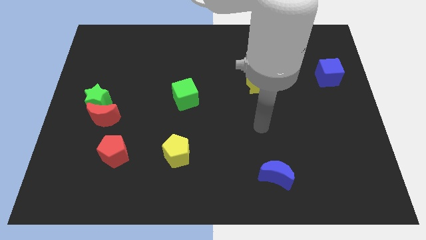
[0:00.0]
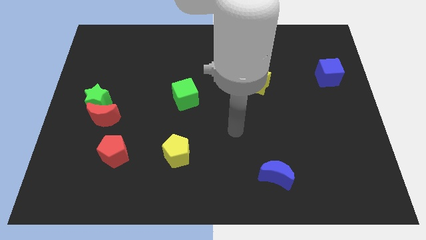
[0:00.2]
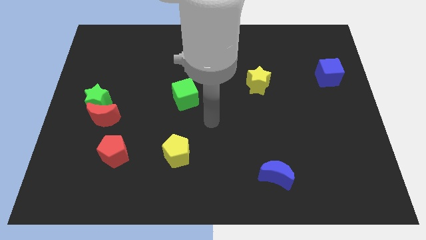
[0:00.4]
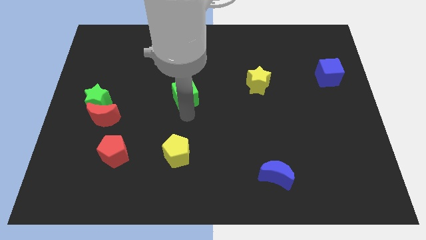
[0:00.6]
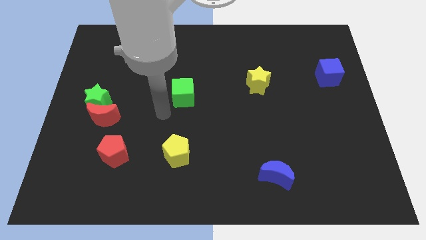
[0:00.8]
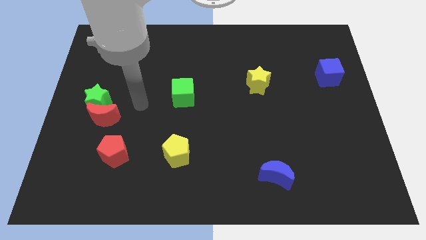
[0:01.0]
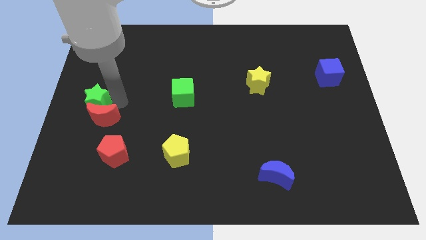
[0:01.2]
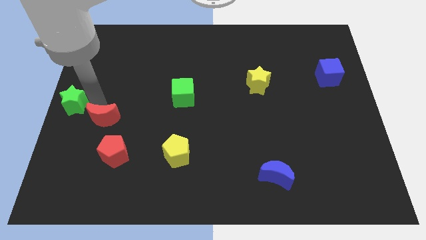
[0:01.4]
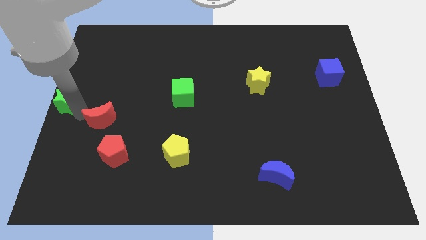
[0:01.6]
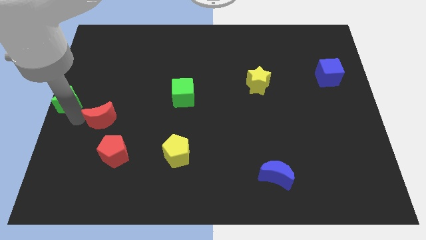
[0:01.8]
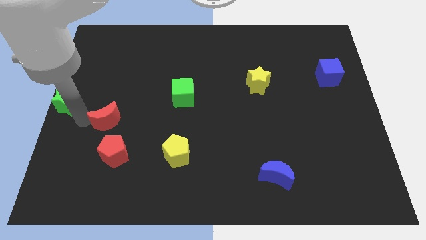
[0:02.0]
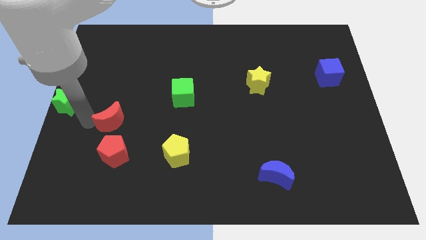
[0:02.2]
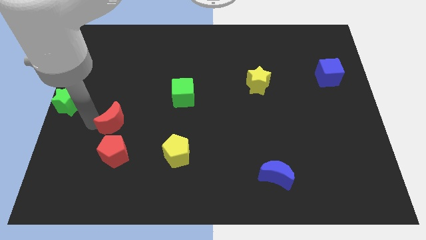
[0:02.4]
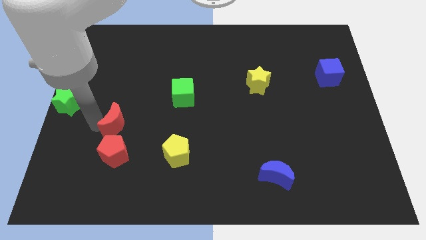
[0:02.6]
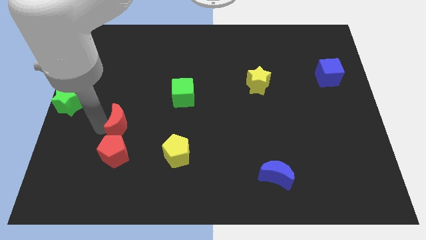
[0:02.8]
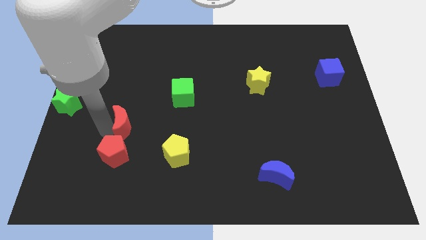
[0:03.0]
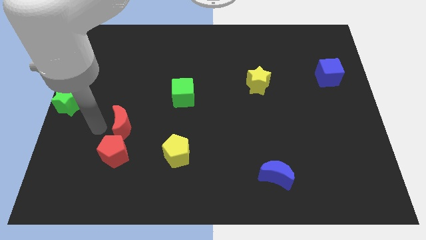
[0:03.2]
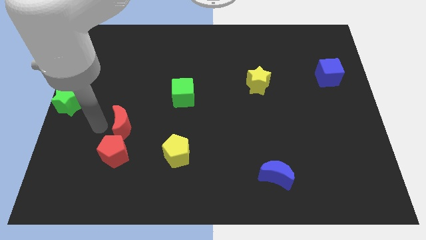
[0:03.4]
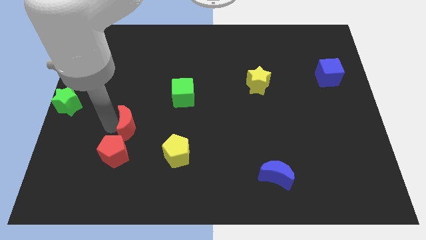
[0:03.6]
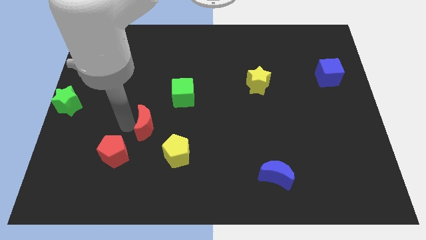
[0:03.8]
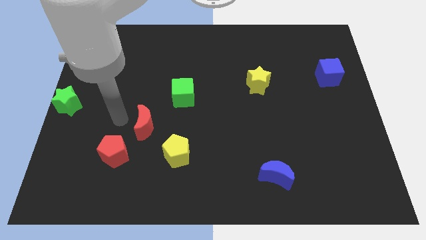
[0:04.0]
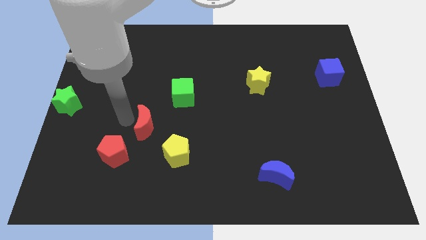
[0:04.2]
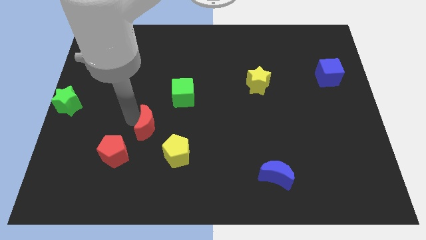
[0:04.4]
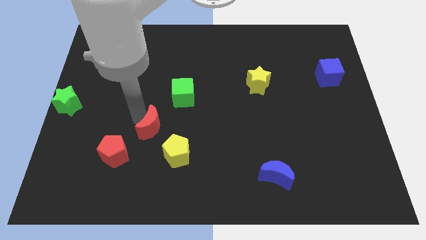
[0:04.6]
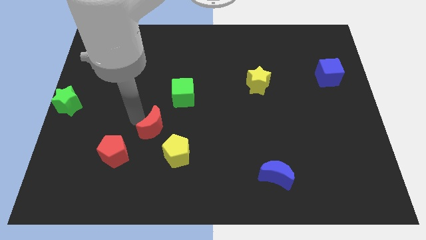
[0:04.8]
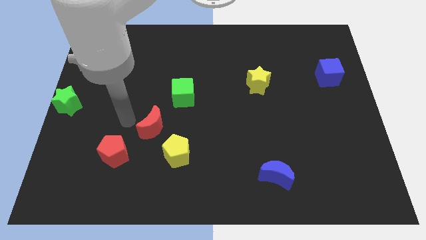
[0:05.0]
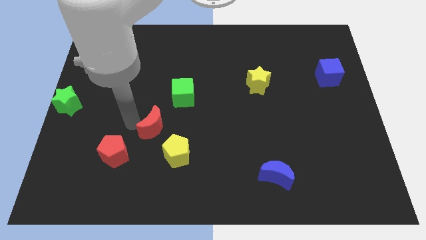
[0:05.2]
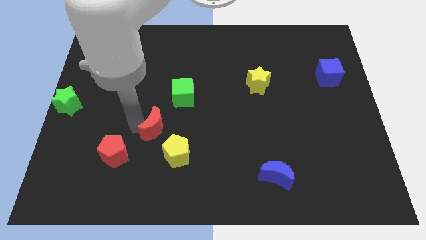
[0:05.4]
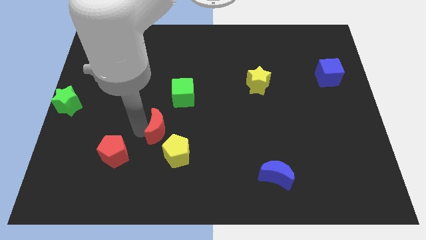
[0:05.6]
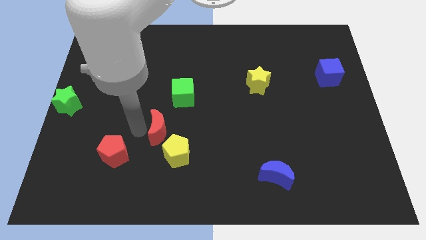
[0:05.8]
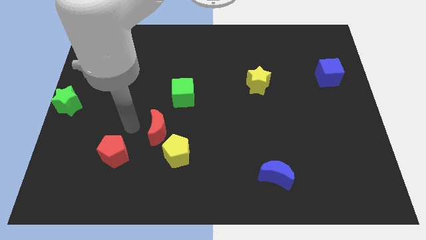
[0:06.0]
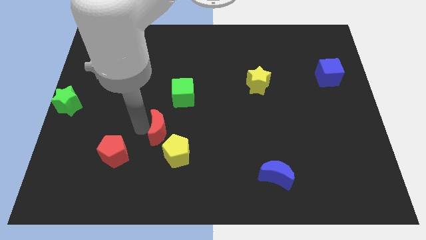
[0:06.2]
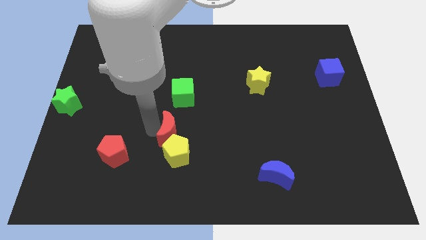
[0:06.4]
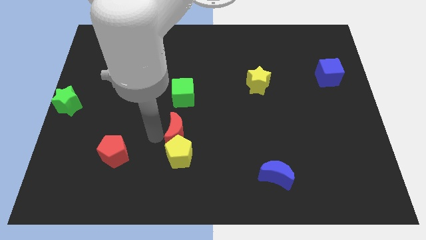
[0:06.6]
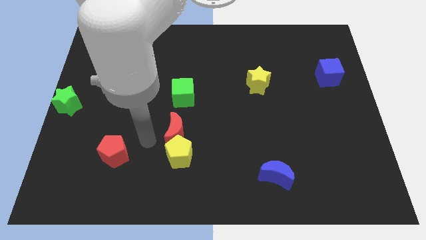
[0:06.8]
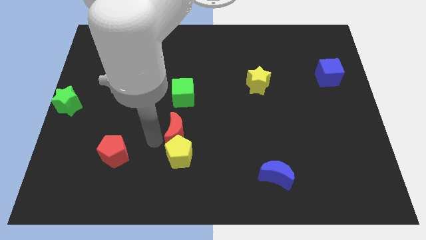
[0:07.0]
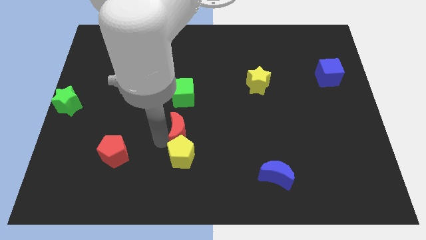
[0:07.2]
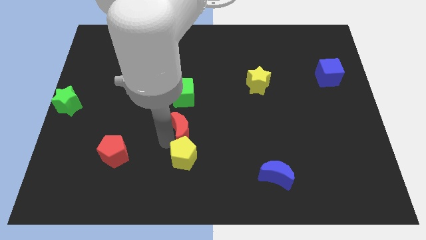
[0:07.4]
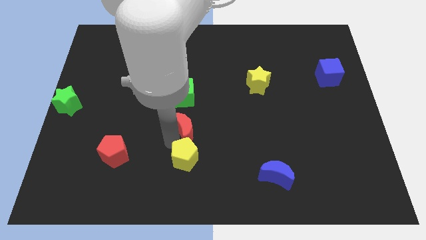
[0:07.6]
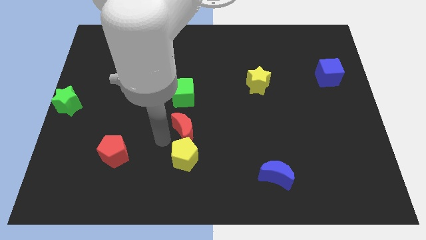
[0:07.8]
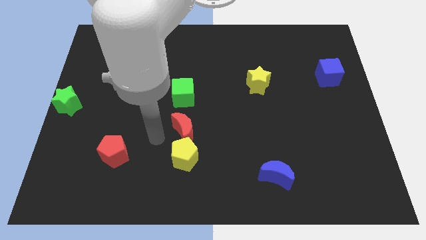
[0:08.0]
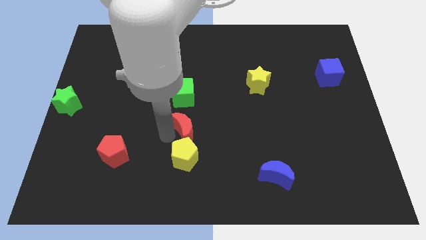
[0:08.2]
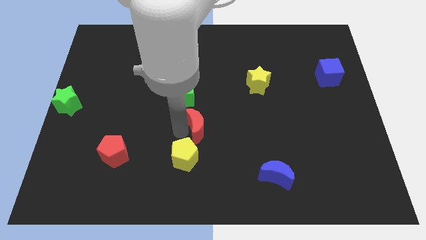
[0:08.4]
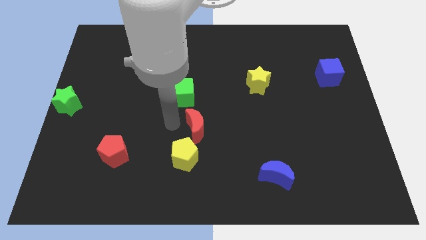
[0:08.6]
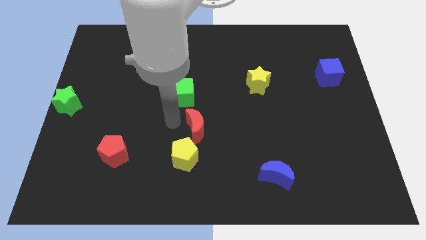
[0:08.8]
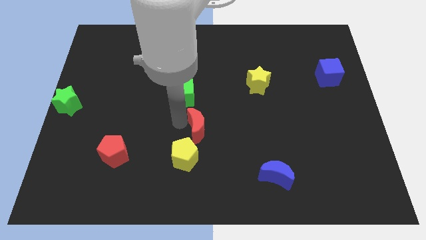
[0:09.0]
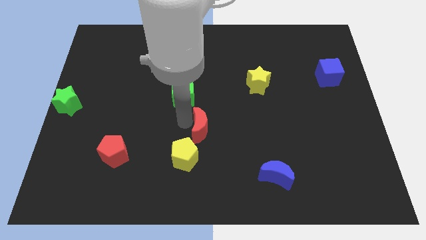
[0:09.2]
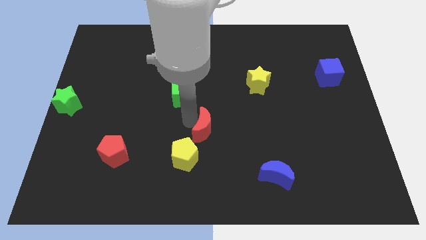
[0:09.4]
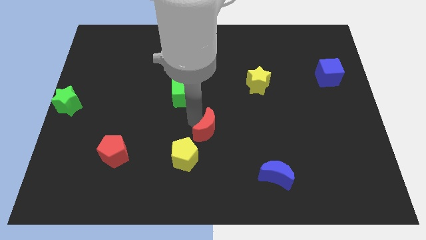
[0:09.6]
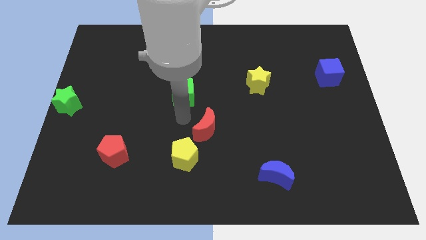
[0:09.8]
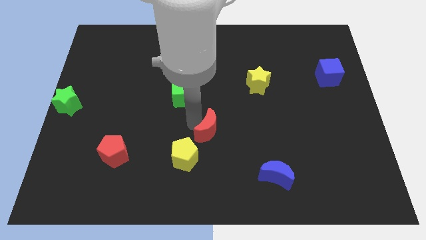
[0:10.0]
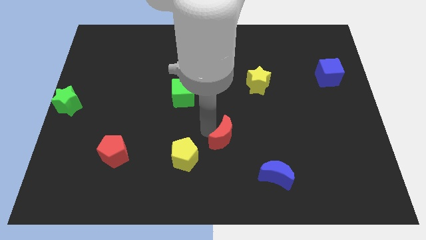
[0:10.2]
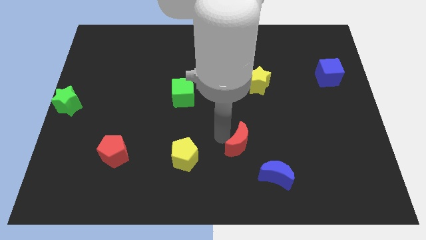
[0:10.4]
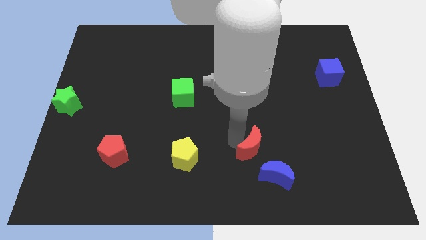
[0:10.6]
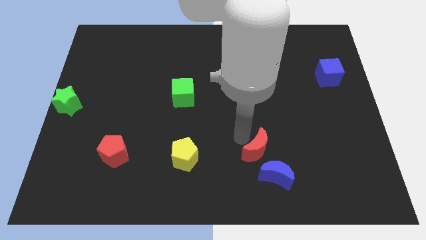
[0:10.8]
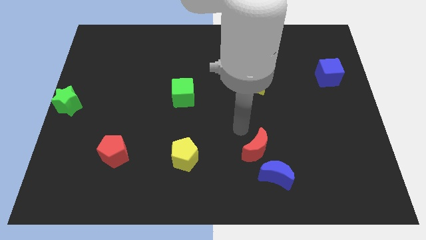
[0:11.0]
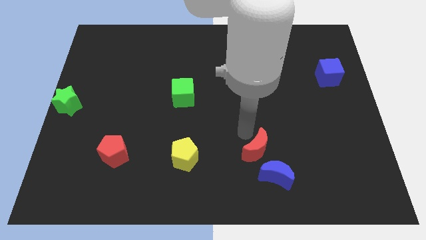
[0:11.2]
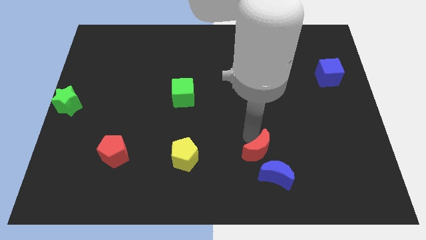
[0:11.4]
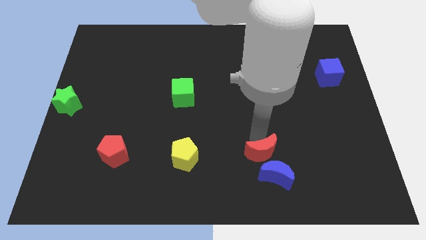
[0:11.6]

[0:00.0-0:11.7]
slide the red moon next to the blue moon

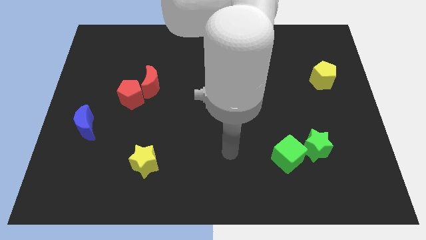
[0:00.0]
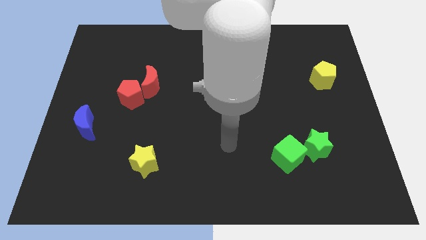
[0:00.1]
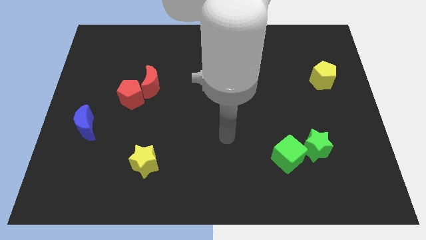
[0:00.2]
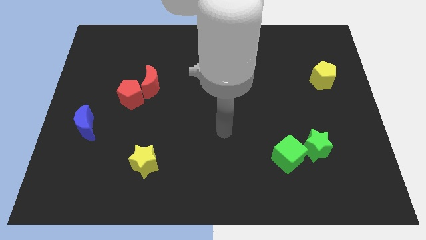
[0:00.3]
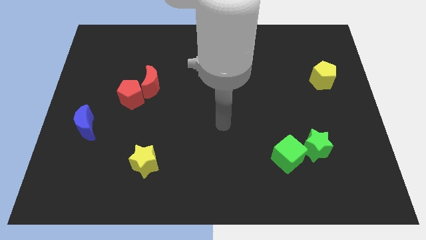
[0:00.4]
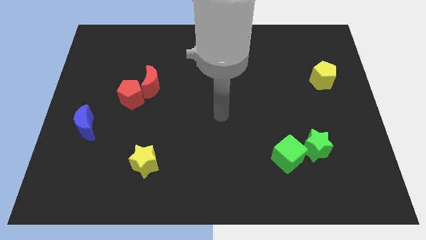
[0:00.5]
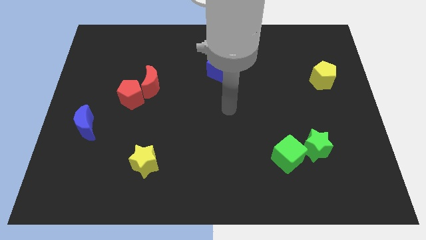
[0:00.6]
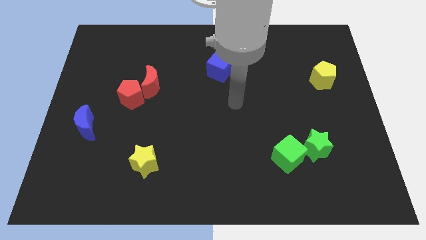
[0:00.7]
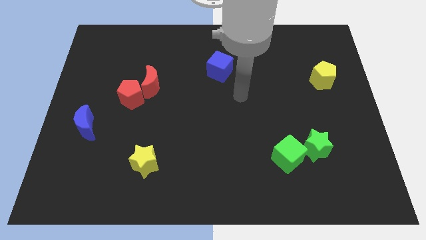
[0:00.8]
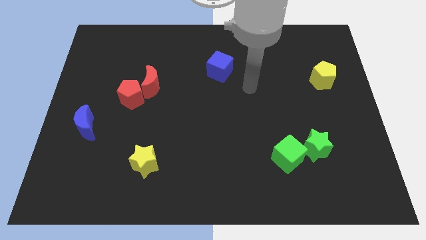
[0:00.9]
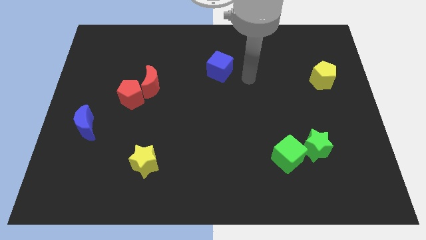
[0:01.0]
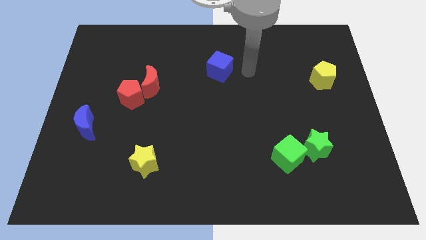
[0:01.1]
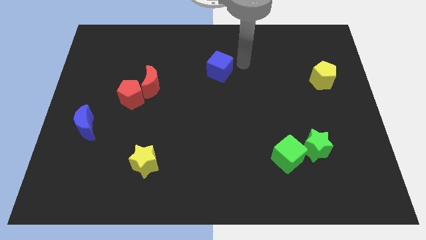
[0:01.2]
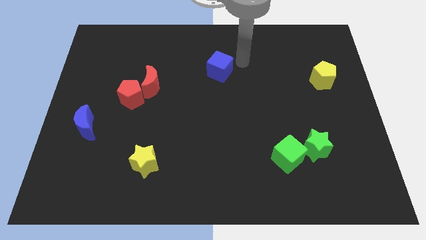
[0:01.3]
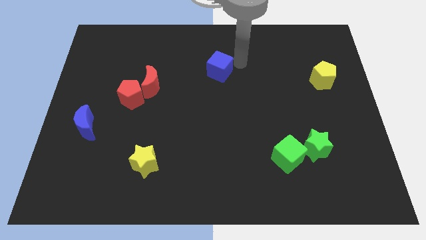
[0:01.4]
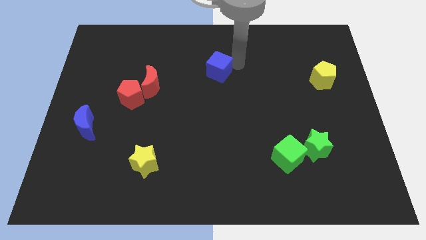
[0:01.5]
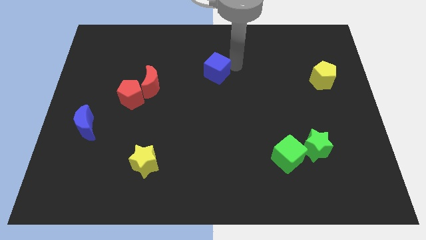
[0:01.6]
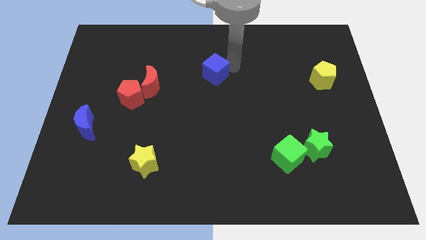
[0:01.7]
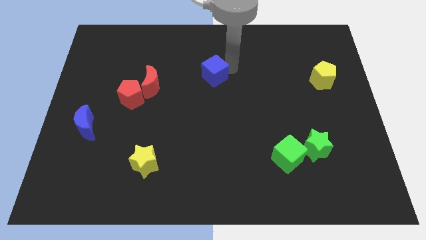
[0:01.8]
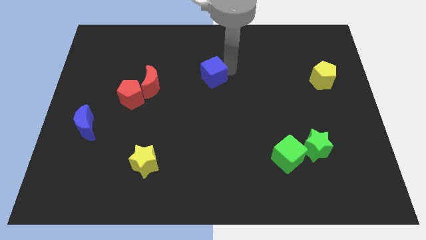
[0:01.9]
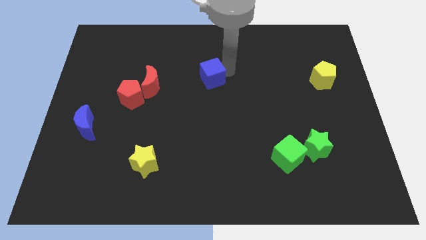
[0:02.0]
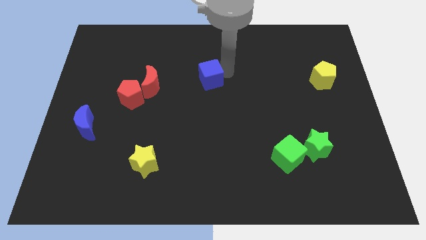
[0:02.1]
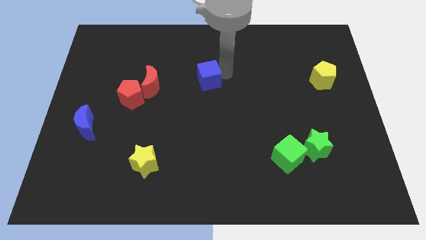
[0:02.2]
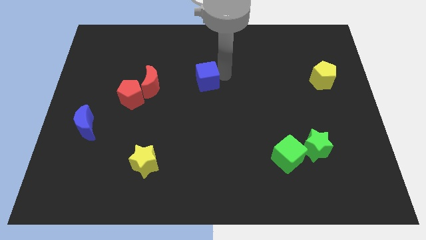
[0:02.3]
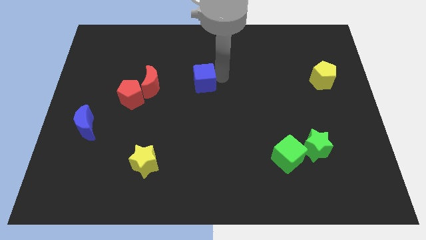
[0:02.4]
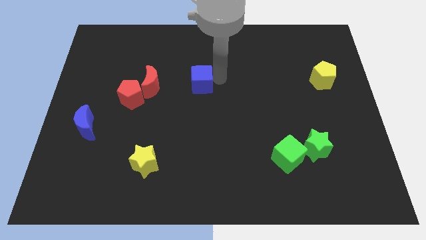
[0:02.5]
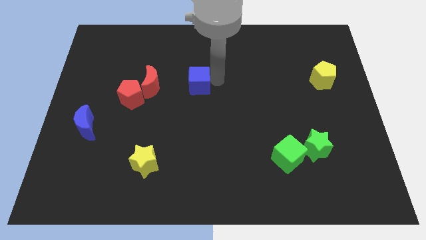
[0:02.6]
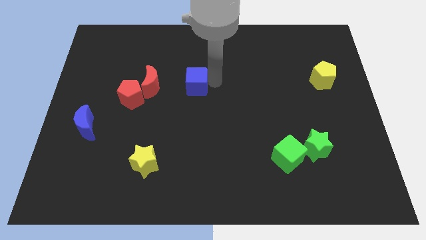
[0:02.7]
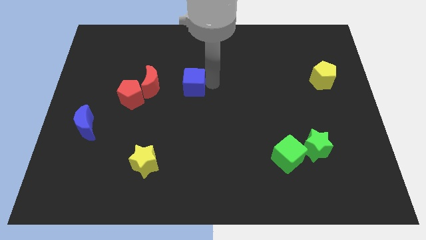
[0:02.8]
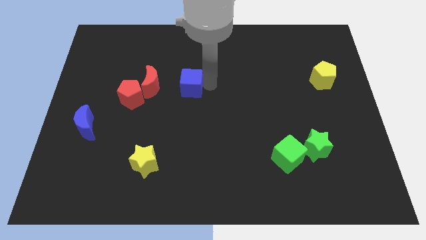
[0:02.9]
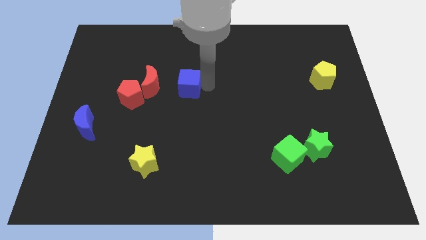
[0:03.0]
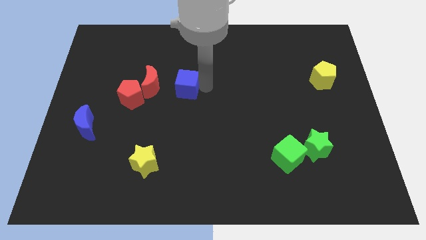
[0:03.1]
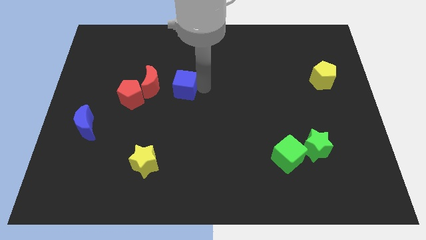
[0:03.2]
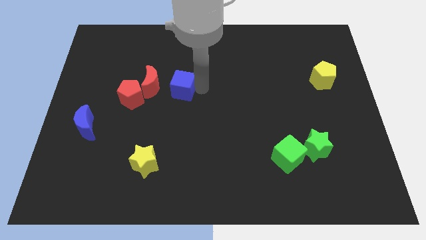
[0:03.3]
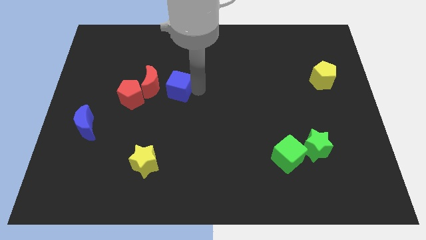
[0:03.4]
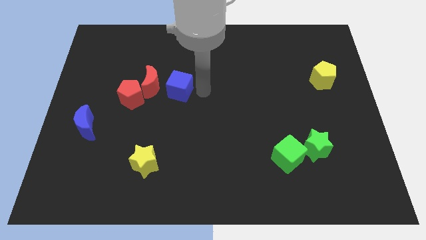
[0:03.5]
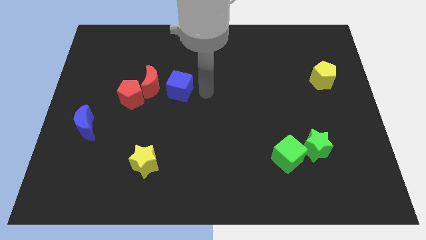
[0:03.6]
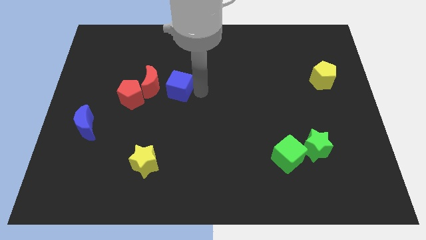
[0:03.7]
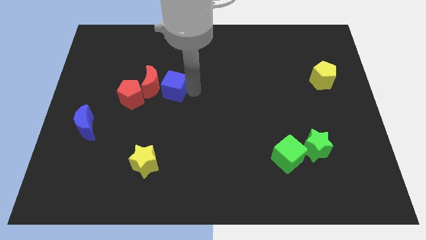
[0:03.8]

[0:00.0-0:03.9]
push the blue cube next to the red moon
